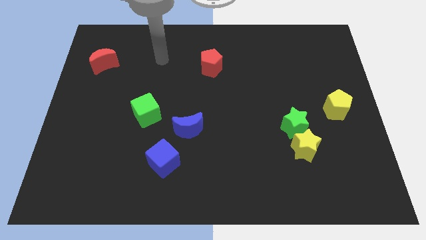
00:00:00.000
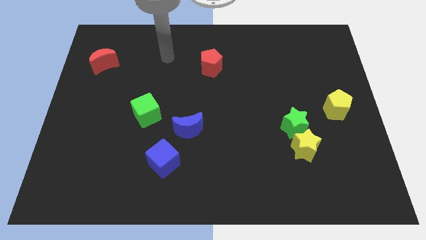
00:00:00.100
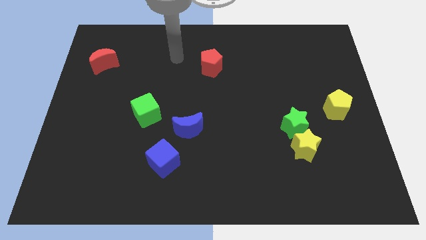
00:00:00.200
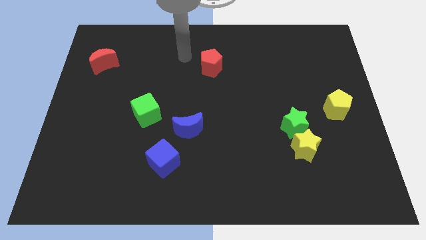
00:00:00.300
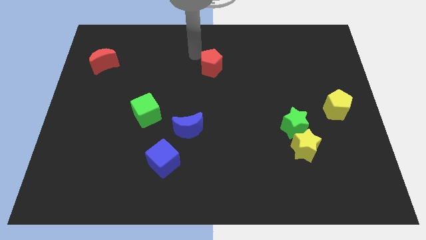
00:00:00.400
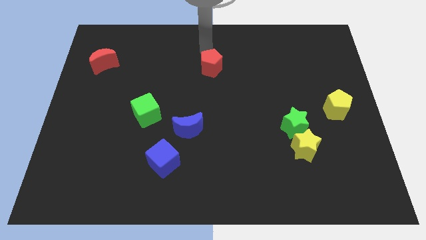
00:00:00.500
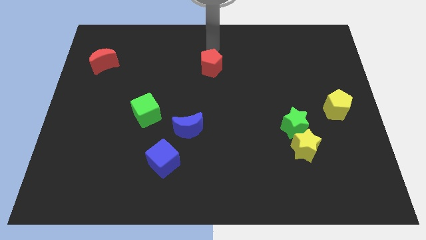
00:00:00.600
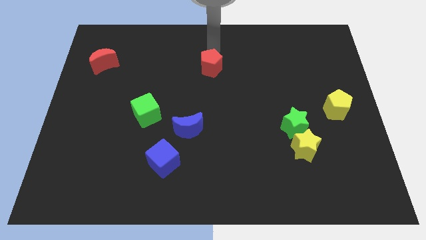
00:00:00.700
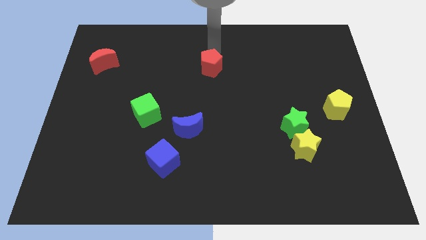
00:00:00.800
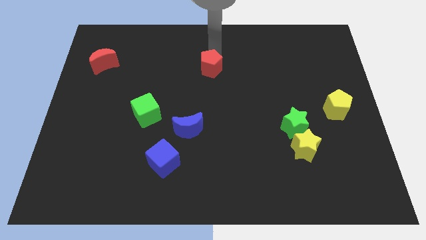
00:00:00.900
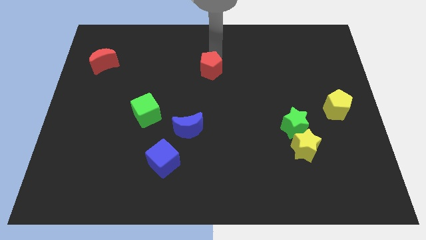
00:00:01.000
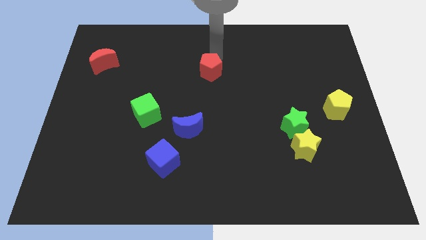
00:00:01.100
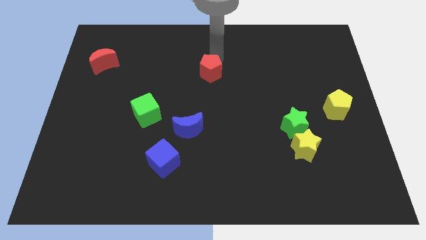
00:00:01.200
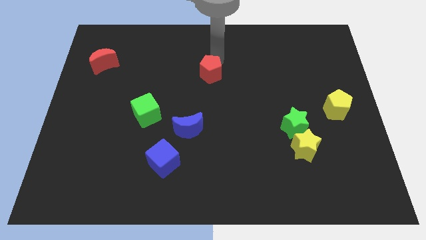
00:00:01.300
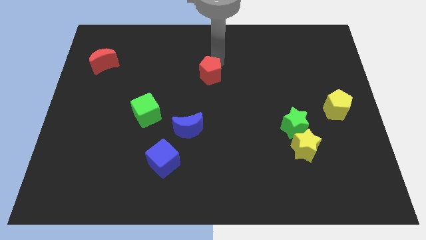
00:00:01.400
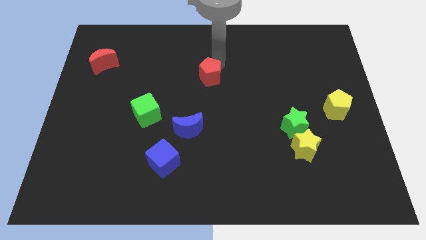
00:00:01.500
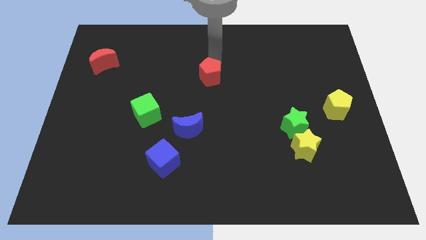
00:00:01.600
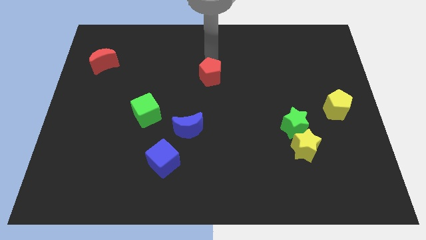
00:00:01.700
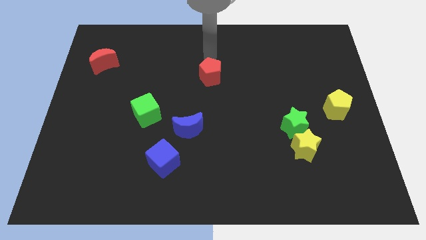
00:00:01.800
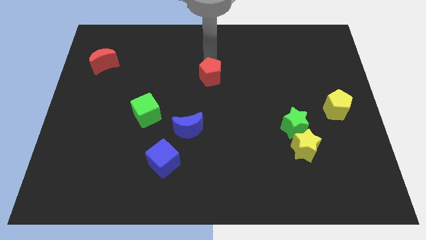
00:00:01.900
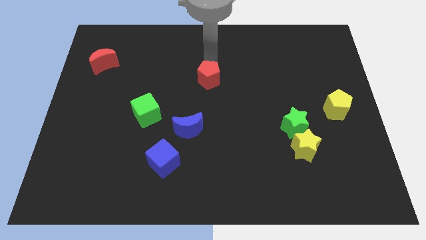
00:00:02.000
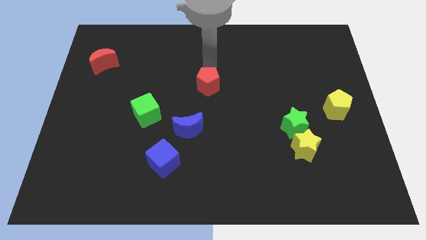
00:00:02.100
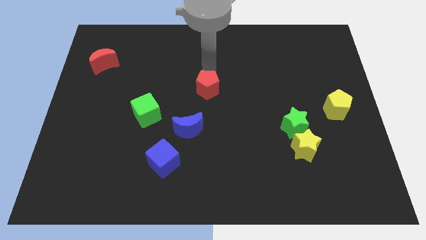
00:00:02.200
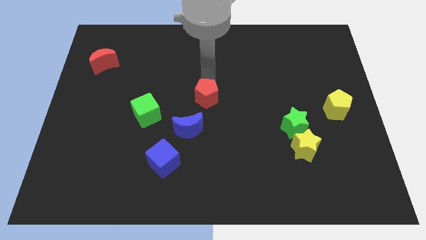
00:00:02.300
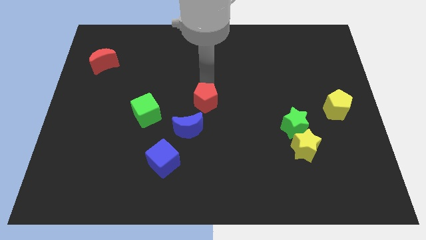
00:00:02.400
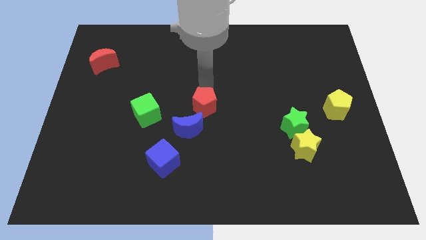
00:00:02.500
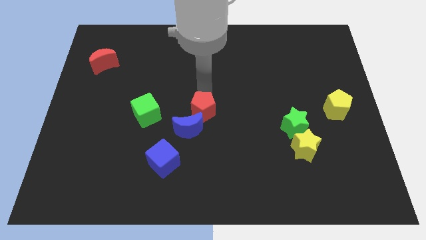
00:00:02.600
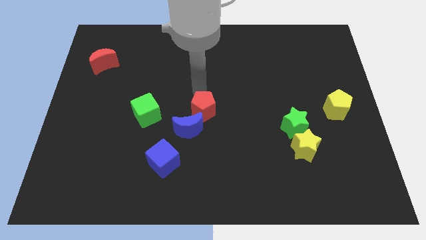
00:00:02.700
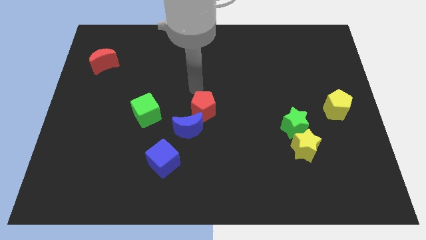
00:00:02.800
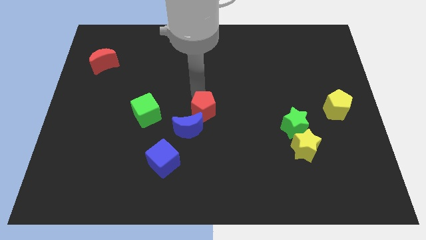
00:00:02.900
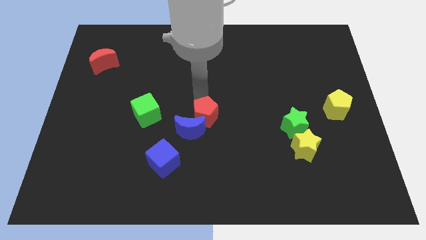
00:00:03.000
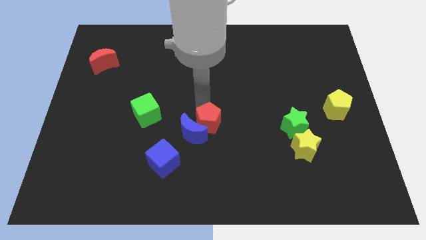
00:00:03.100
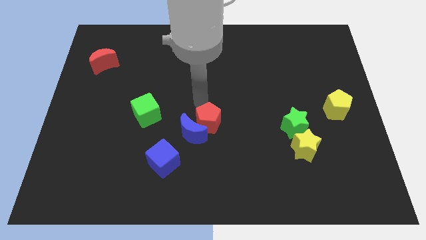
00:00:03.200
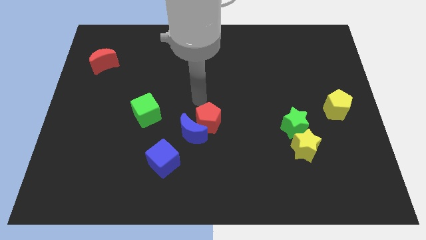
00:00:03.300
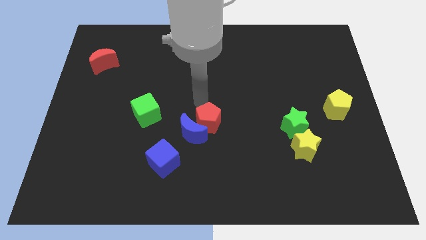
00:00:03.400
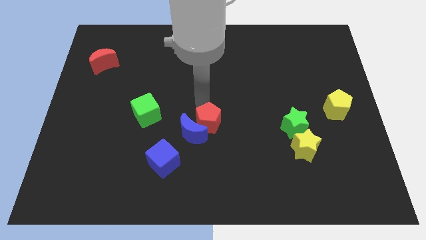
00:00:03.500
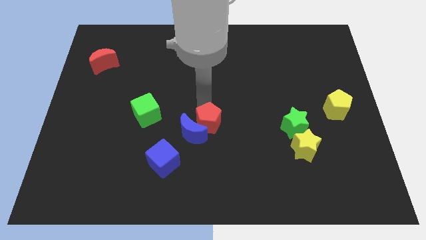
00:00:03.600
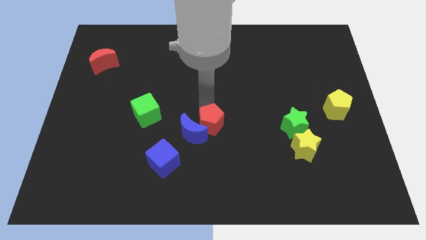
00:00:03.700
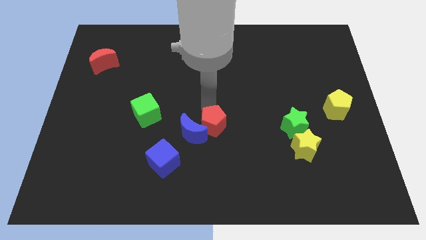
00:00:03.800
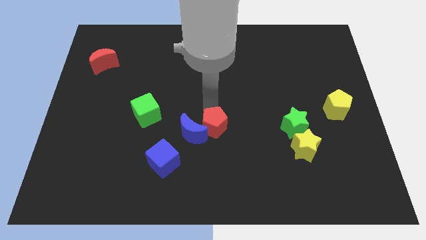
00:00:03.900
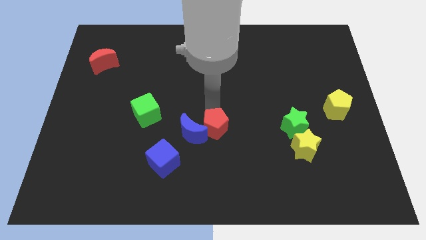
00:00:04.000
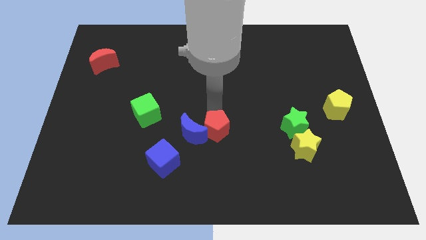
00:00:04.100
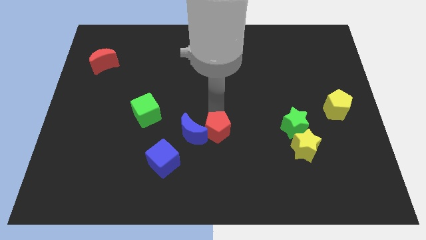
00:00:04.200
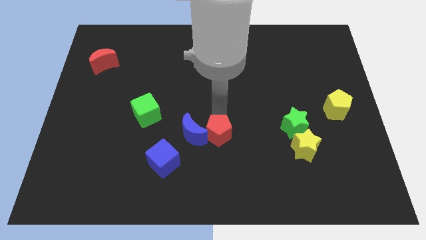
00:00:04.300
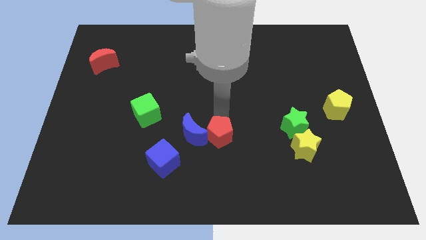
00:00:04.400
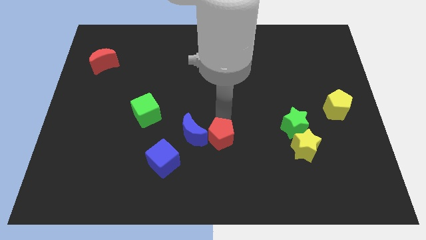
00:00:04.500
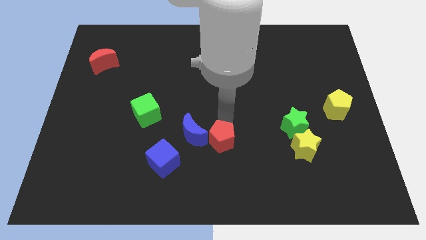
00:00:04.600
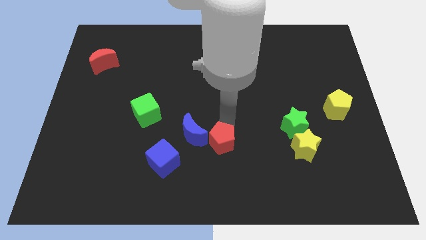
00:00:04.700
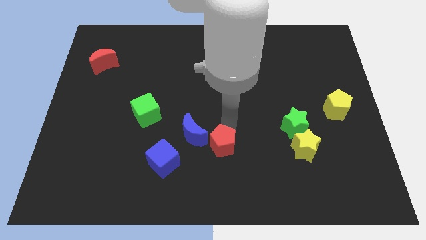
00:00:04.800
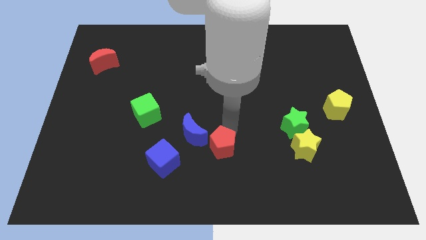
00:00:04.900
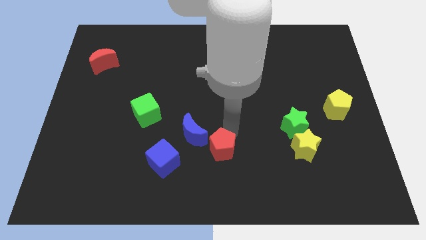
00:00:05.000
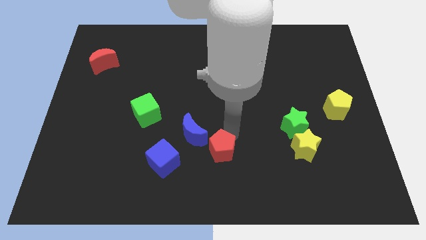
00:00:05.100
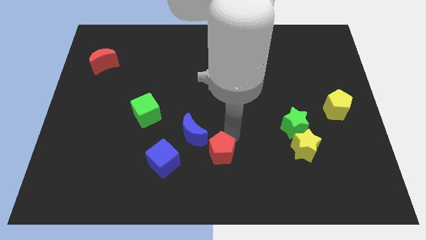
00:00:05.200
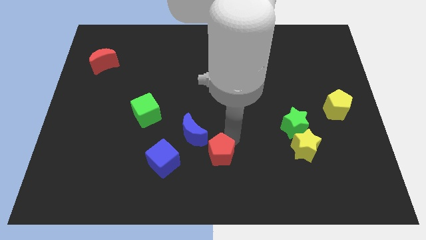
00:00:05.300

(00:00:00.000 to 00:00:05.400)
push the red pentagon to the bottom
